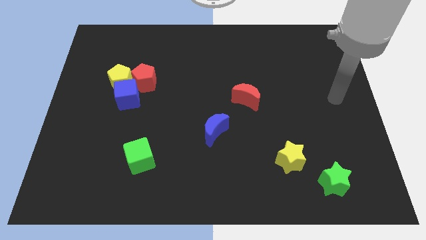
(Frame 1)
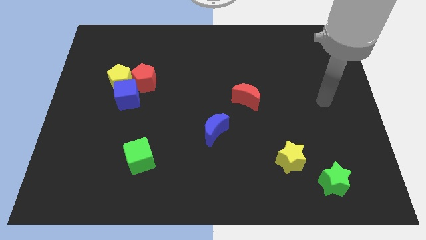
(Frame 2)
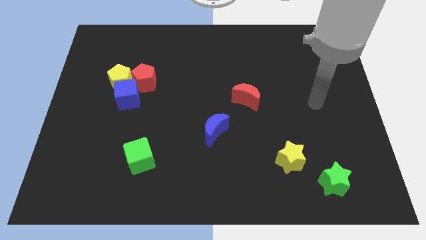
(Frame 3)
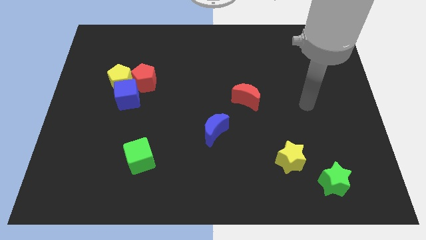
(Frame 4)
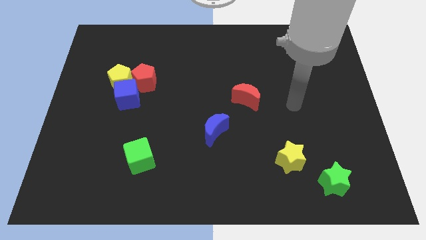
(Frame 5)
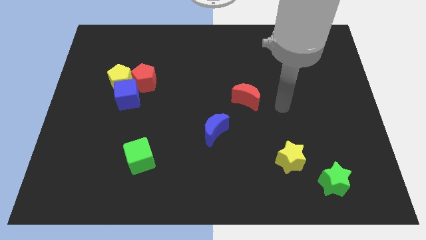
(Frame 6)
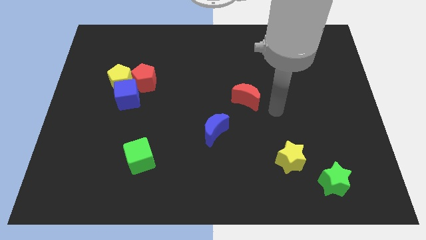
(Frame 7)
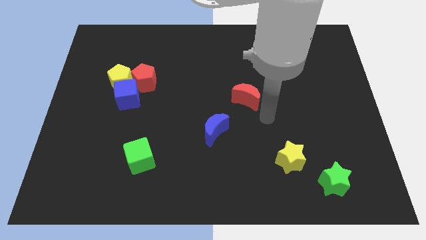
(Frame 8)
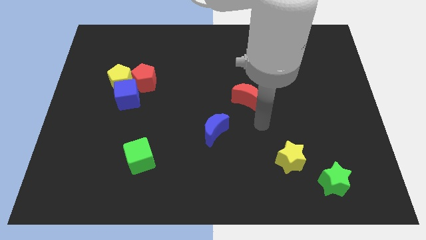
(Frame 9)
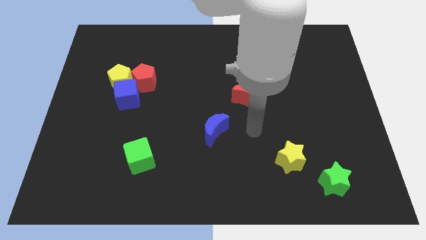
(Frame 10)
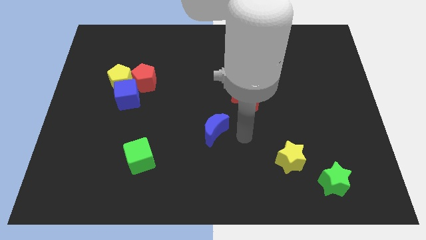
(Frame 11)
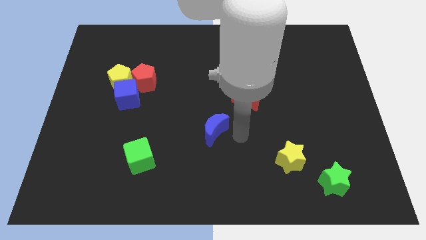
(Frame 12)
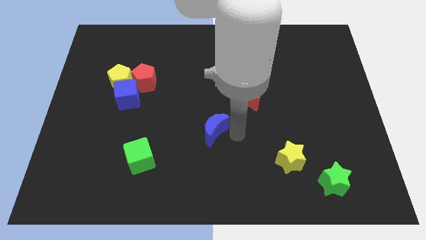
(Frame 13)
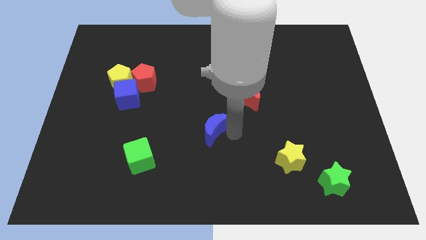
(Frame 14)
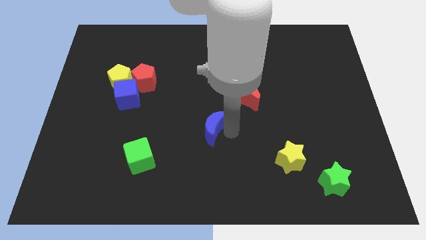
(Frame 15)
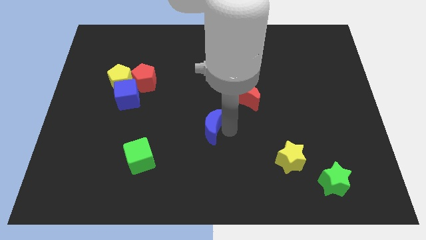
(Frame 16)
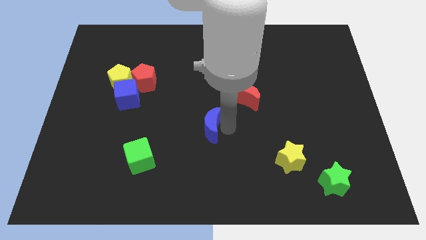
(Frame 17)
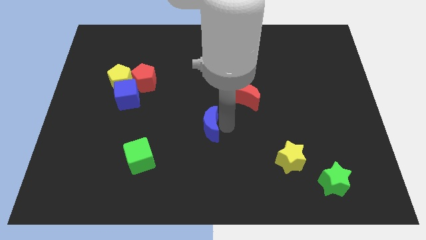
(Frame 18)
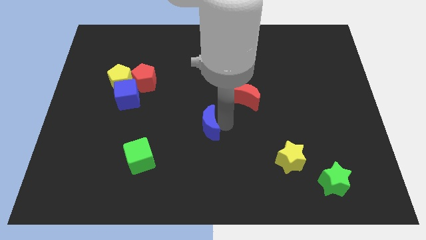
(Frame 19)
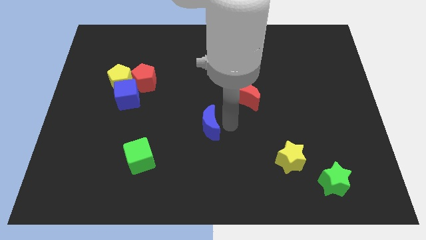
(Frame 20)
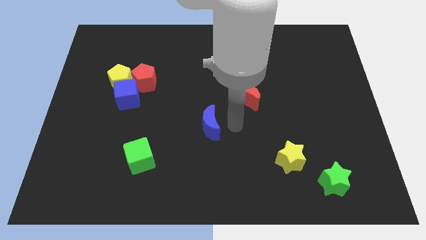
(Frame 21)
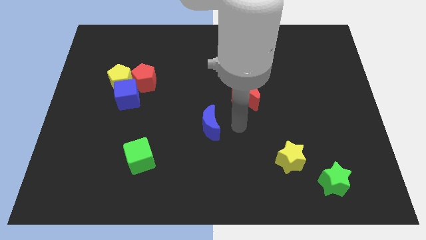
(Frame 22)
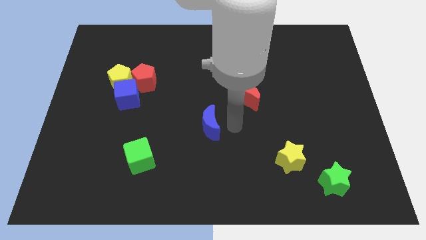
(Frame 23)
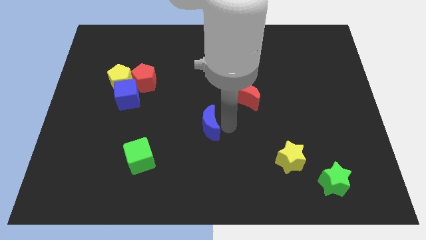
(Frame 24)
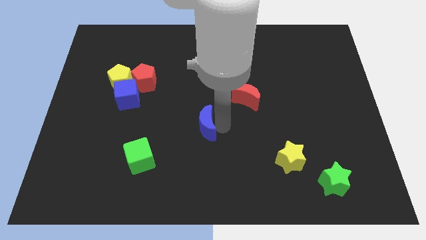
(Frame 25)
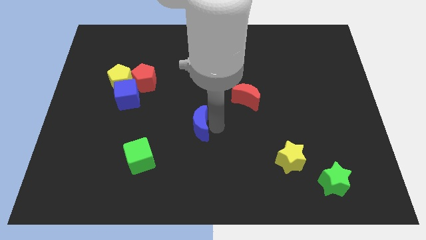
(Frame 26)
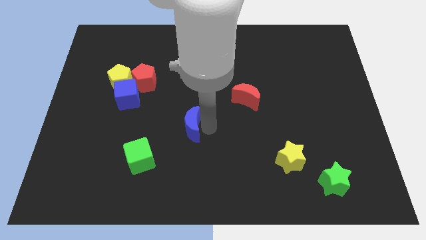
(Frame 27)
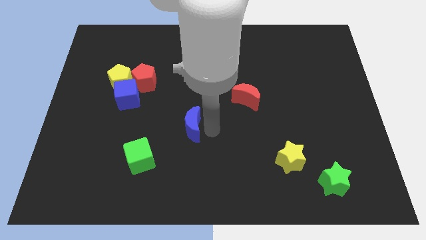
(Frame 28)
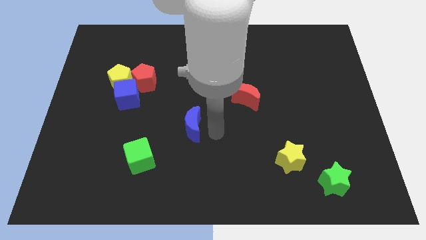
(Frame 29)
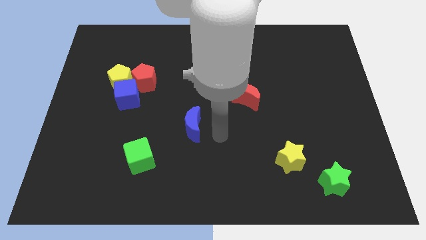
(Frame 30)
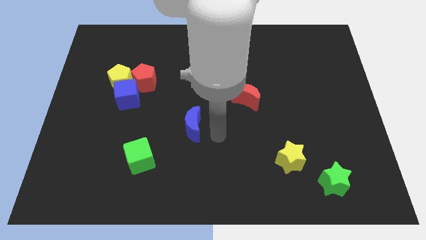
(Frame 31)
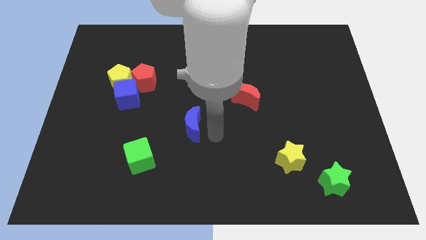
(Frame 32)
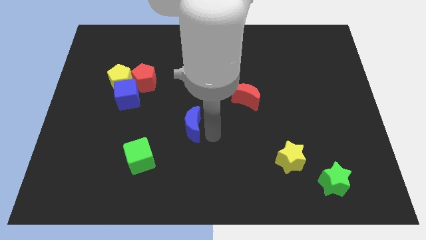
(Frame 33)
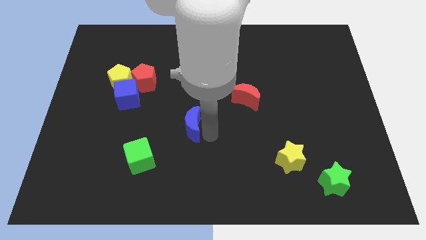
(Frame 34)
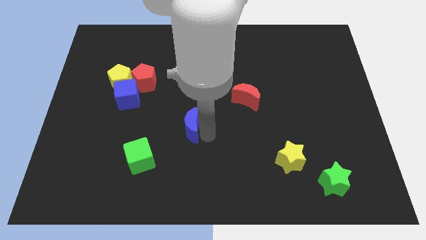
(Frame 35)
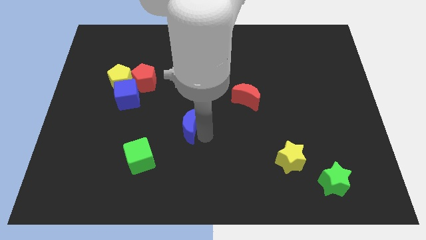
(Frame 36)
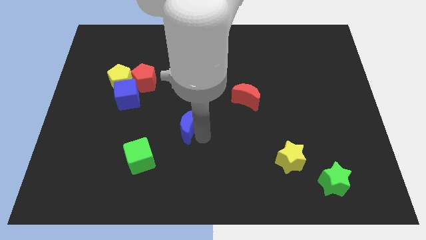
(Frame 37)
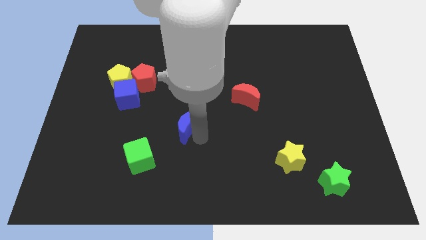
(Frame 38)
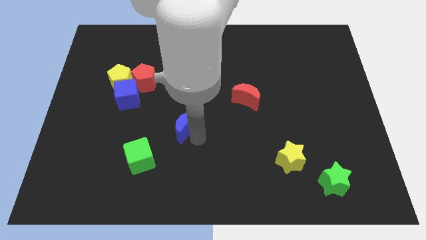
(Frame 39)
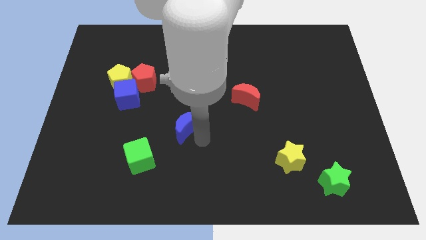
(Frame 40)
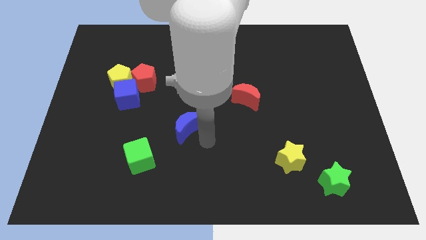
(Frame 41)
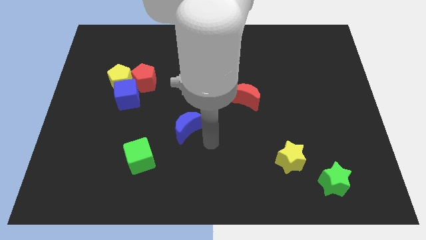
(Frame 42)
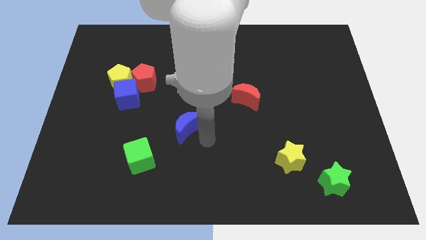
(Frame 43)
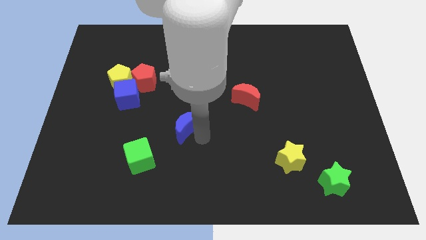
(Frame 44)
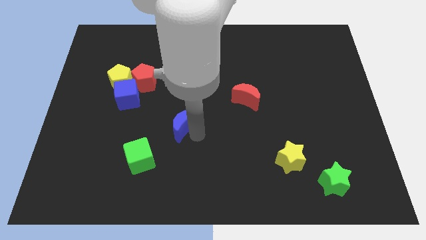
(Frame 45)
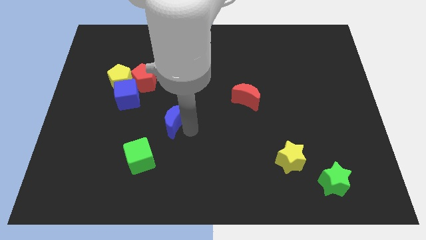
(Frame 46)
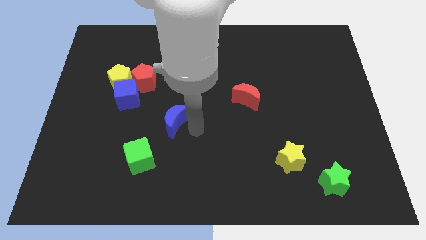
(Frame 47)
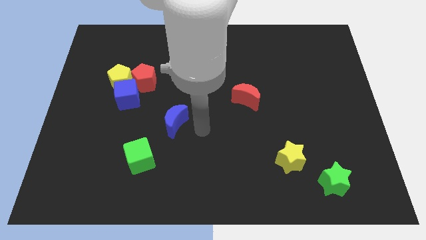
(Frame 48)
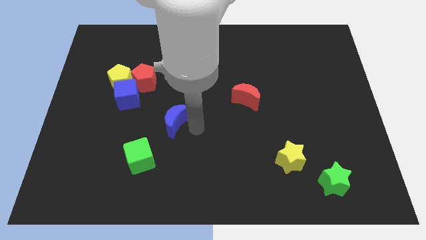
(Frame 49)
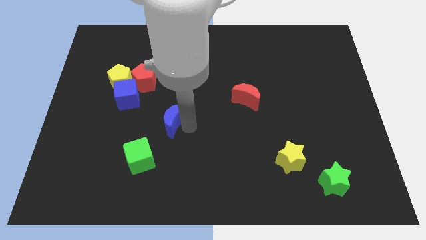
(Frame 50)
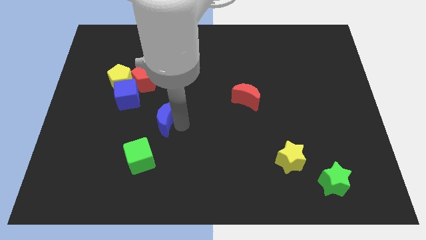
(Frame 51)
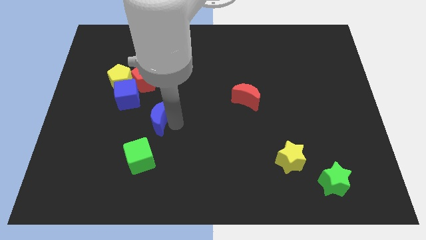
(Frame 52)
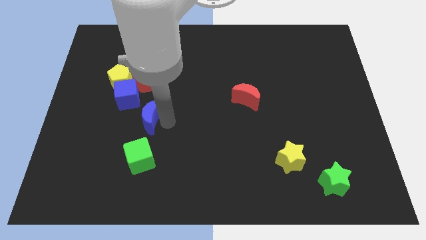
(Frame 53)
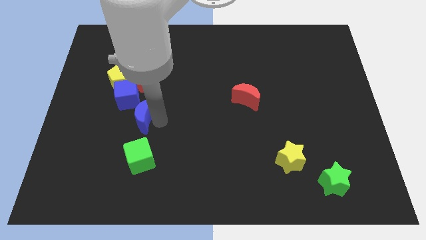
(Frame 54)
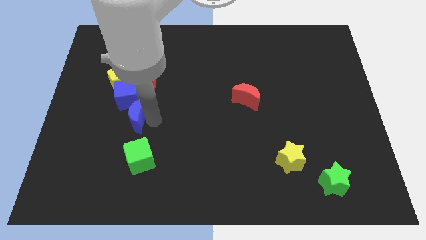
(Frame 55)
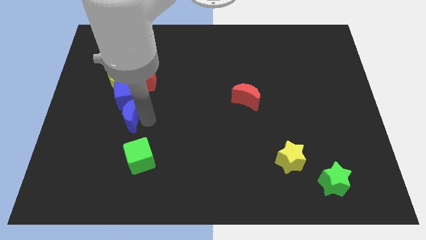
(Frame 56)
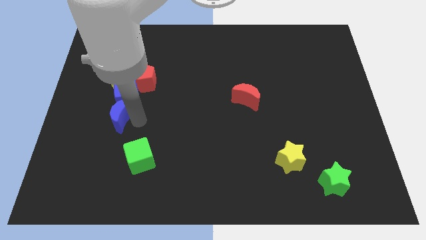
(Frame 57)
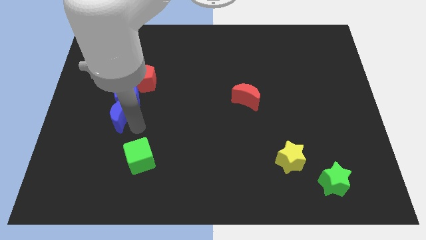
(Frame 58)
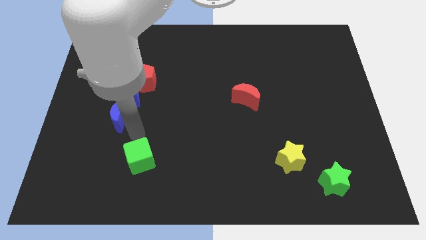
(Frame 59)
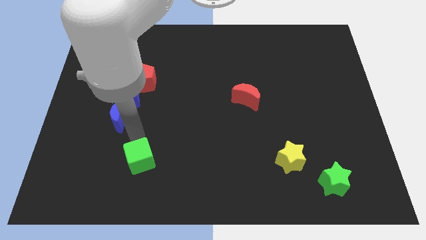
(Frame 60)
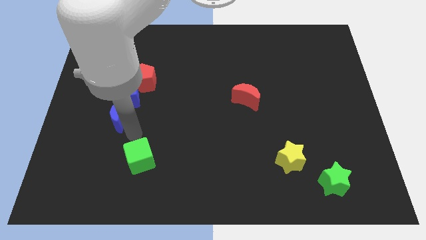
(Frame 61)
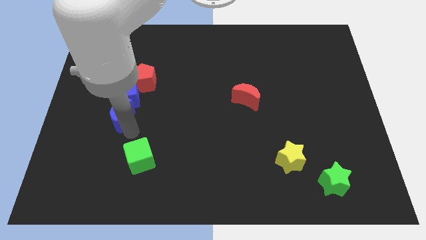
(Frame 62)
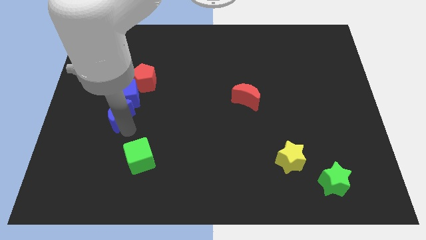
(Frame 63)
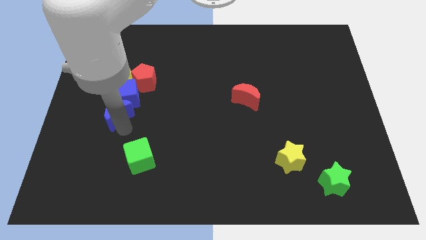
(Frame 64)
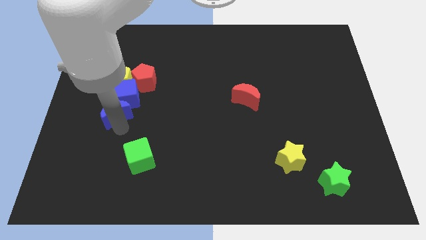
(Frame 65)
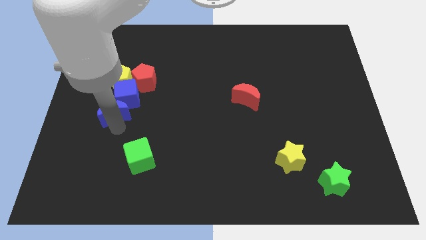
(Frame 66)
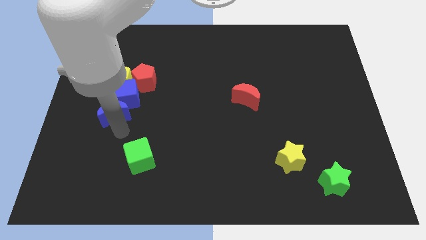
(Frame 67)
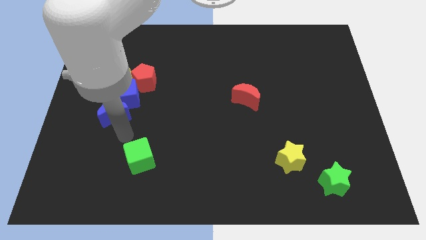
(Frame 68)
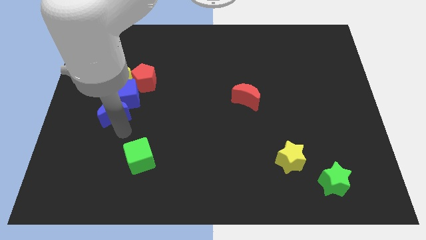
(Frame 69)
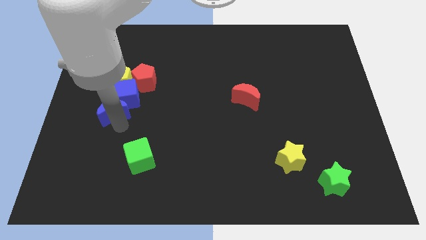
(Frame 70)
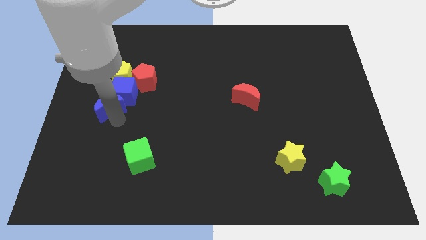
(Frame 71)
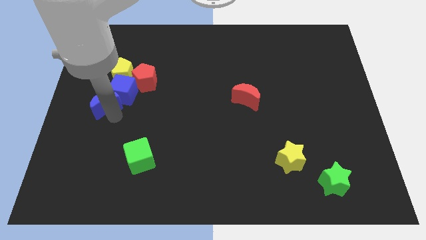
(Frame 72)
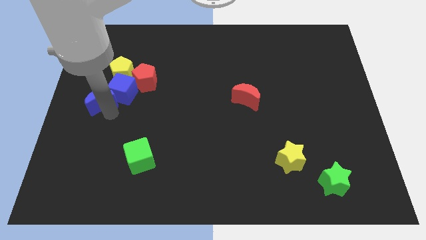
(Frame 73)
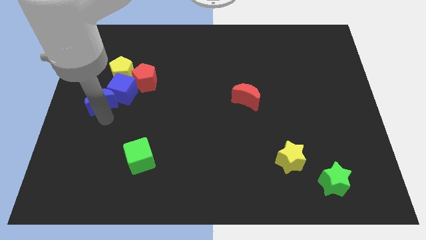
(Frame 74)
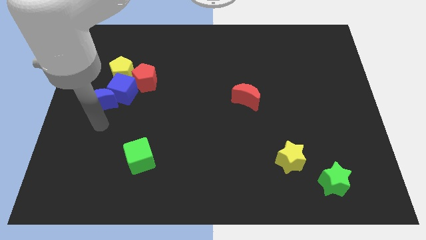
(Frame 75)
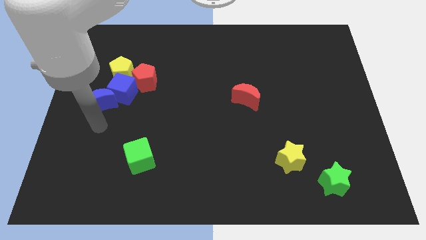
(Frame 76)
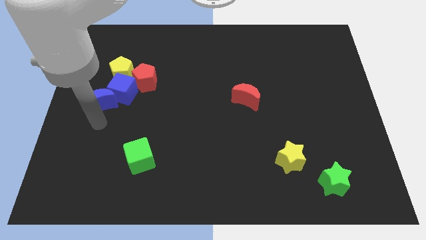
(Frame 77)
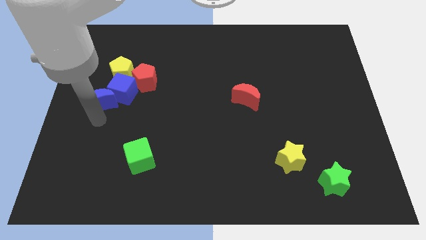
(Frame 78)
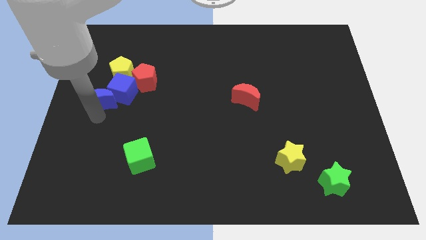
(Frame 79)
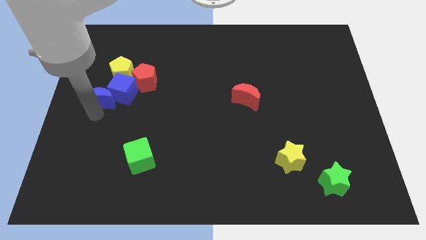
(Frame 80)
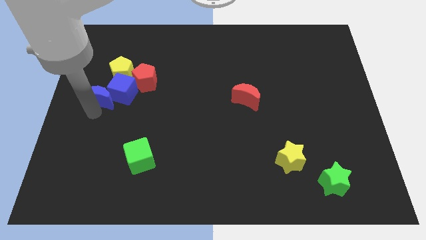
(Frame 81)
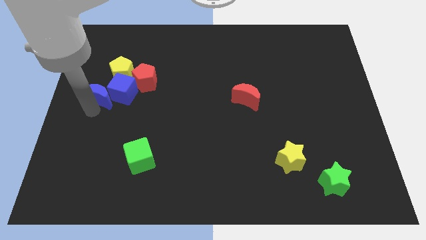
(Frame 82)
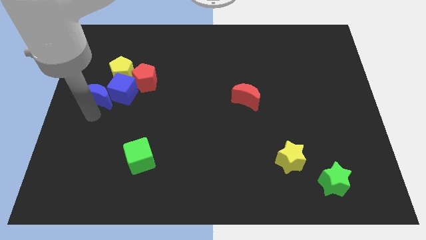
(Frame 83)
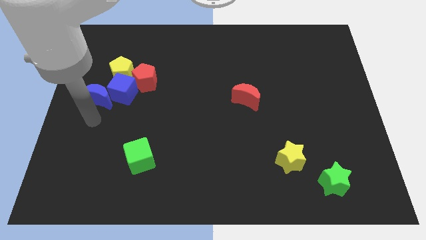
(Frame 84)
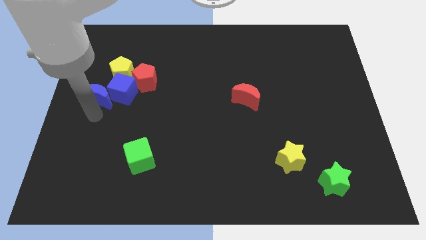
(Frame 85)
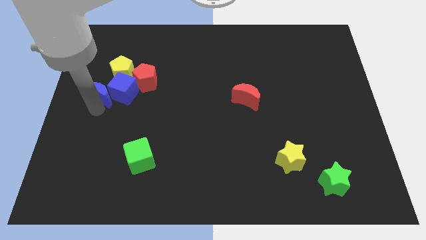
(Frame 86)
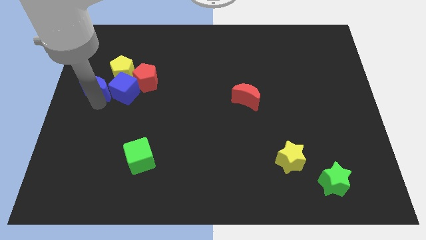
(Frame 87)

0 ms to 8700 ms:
move the blue moon to the top left side of the blue cube
